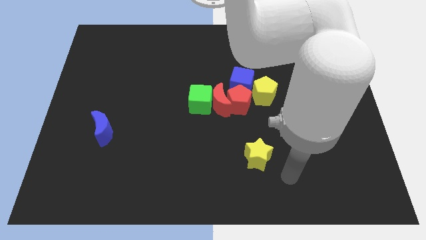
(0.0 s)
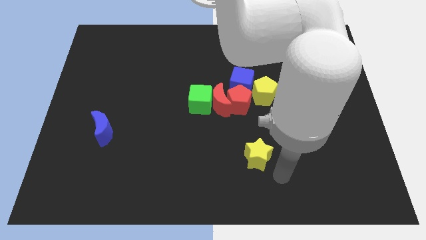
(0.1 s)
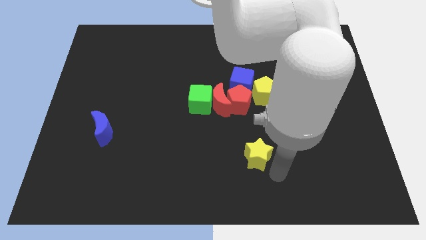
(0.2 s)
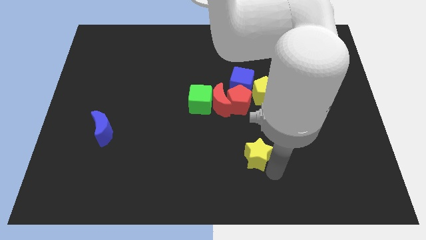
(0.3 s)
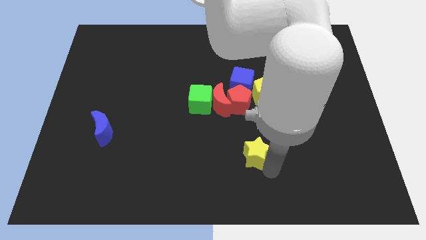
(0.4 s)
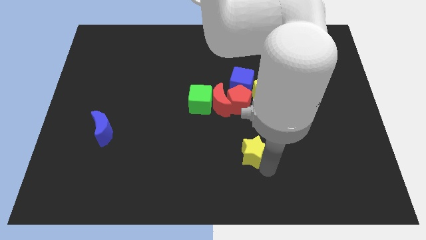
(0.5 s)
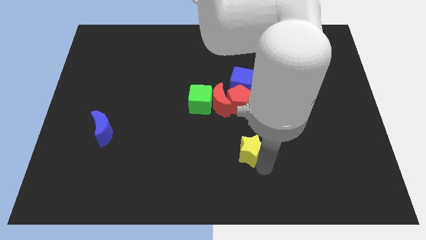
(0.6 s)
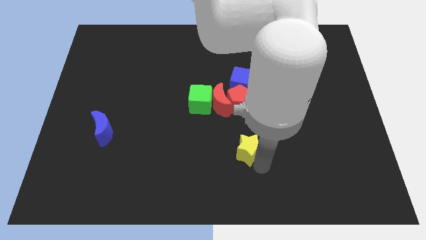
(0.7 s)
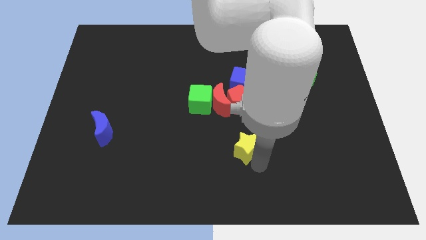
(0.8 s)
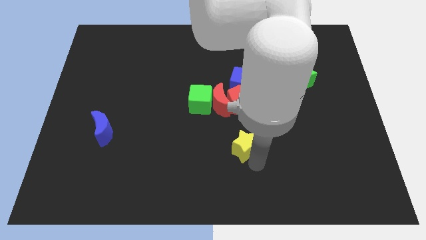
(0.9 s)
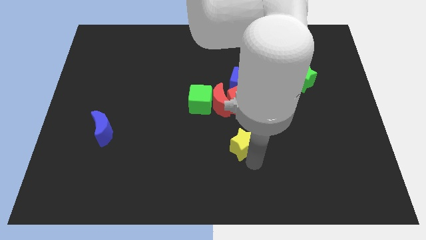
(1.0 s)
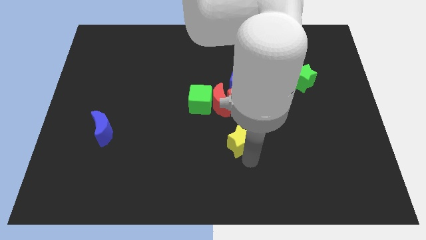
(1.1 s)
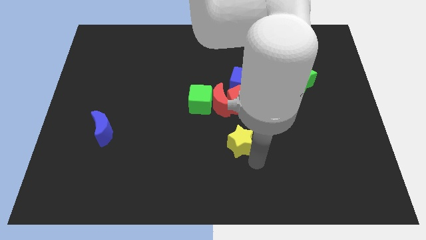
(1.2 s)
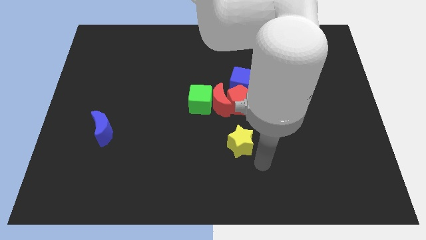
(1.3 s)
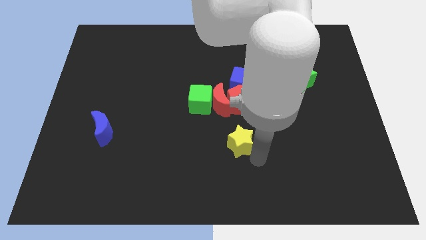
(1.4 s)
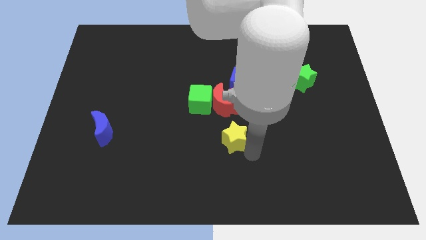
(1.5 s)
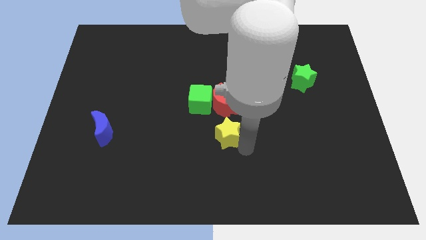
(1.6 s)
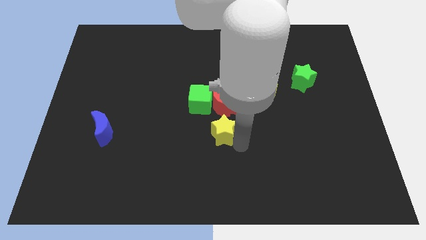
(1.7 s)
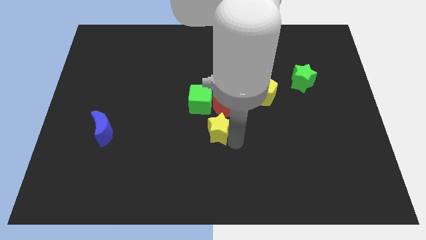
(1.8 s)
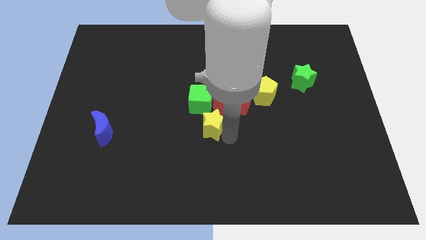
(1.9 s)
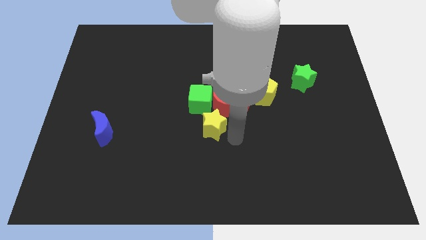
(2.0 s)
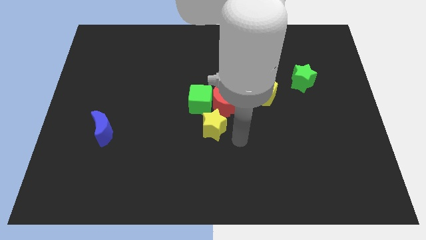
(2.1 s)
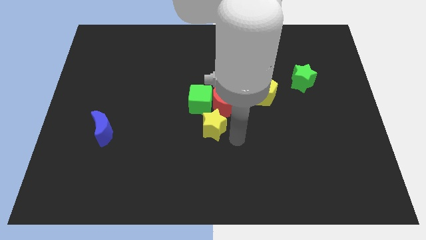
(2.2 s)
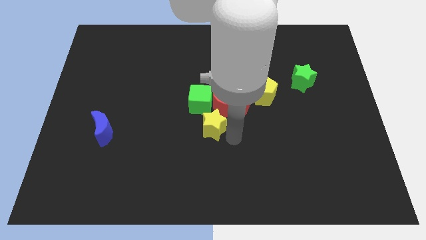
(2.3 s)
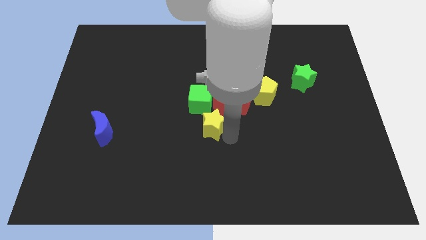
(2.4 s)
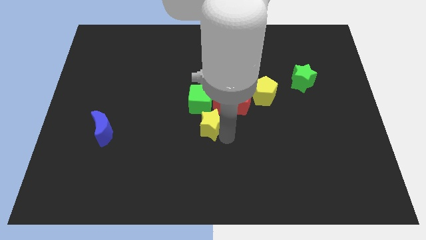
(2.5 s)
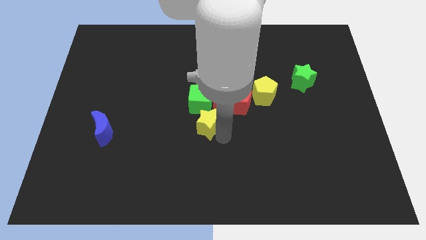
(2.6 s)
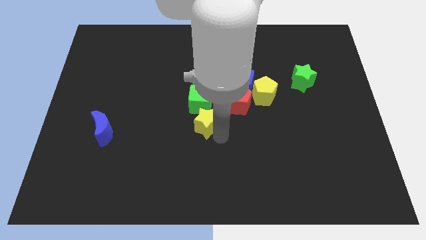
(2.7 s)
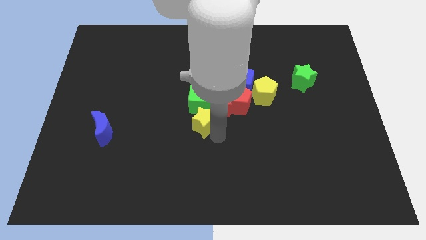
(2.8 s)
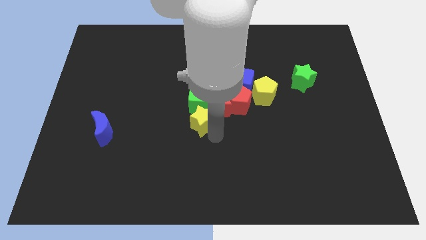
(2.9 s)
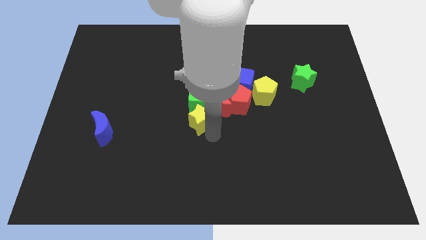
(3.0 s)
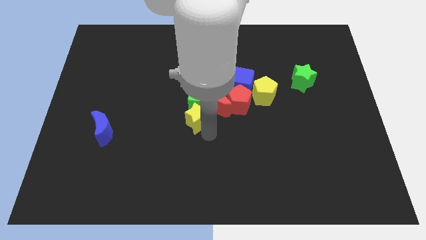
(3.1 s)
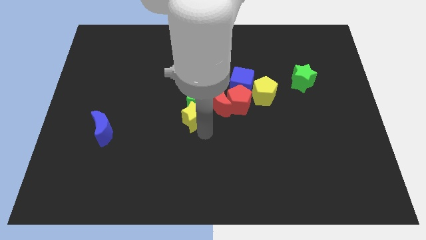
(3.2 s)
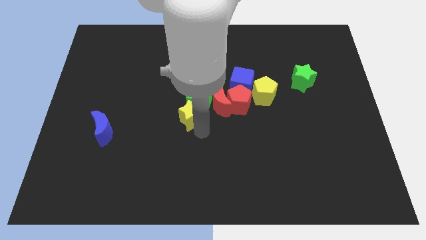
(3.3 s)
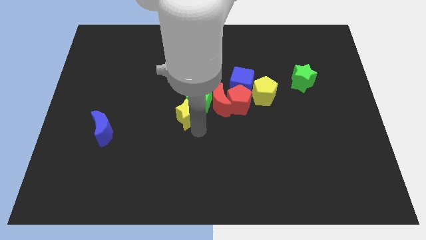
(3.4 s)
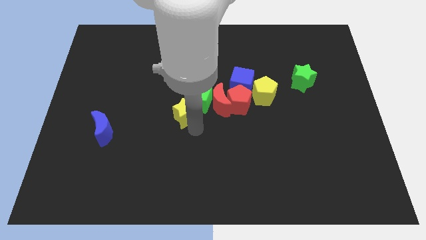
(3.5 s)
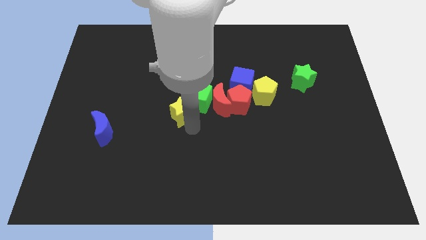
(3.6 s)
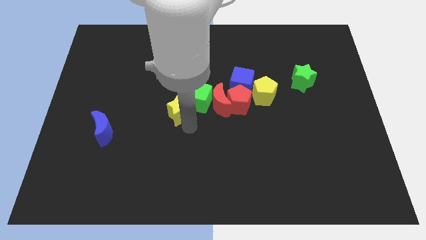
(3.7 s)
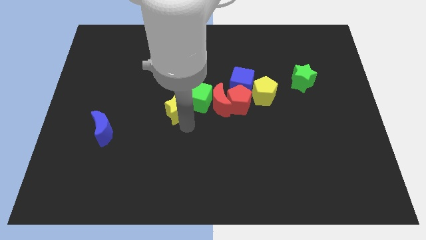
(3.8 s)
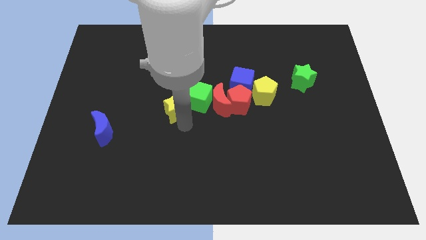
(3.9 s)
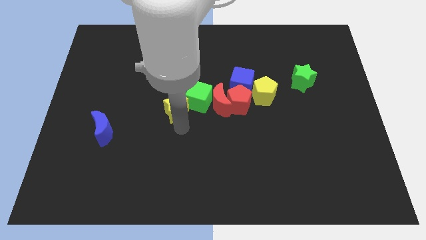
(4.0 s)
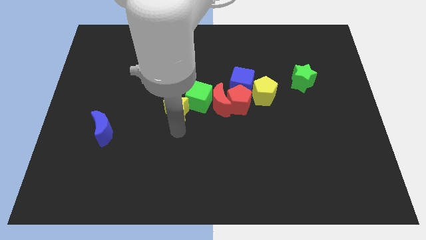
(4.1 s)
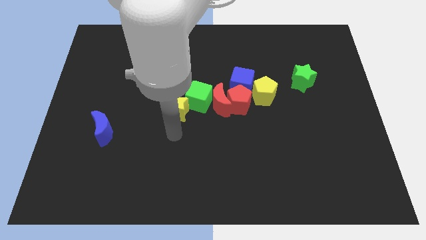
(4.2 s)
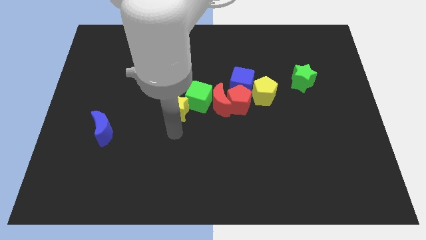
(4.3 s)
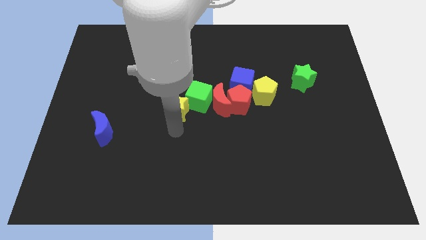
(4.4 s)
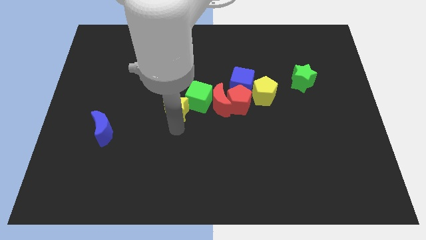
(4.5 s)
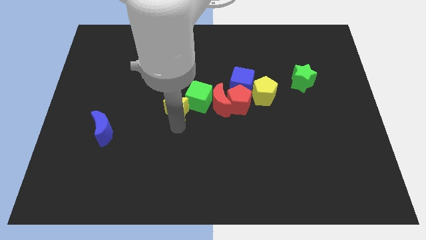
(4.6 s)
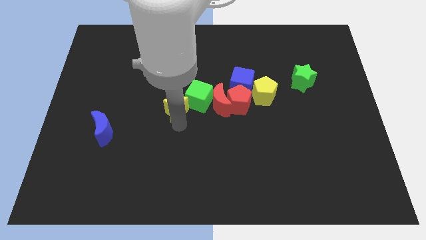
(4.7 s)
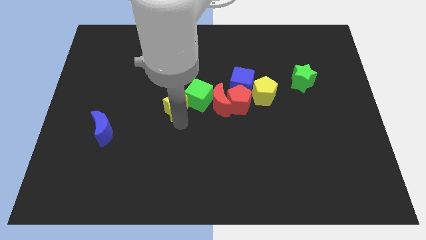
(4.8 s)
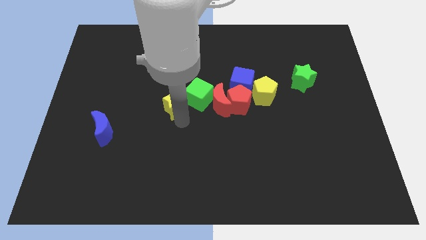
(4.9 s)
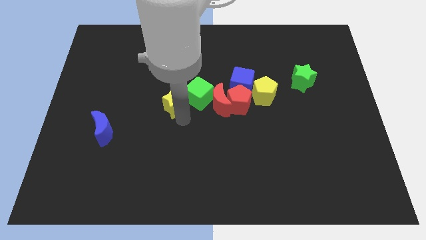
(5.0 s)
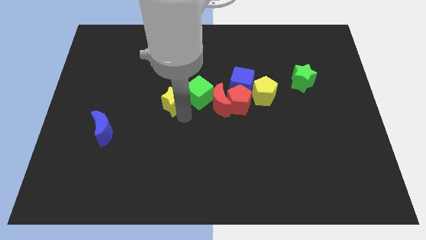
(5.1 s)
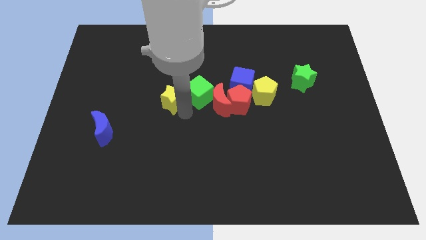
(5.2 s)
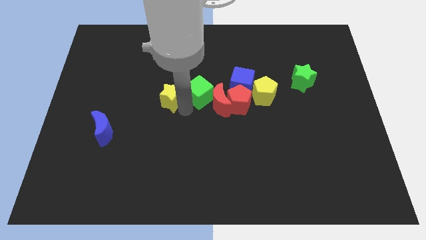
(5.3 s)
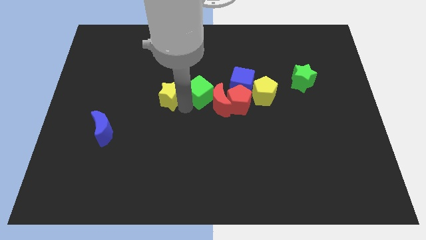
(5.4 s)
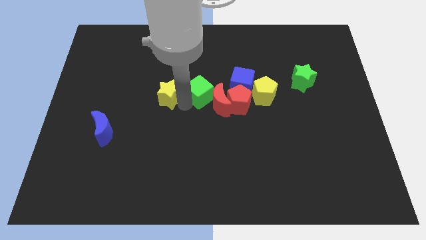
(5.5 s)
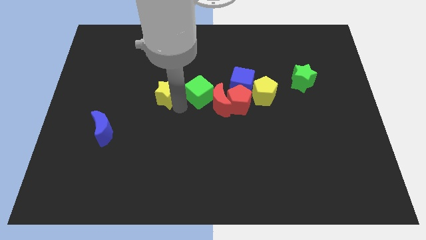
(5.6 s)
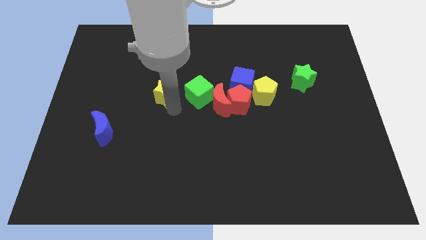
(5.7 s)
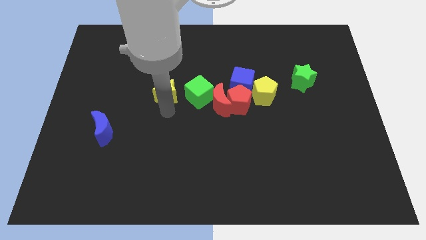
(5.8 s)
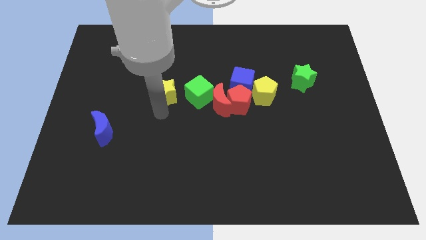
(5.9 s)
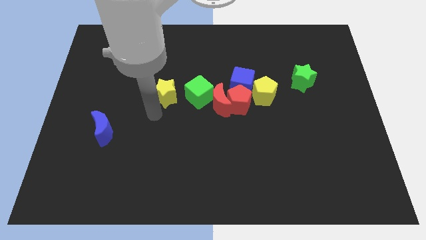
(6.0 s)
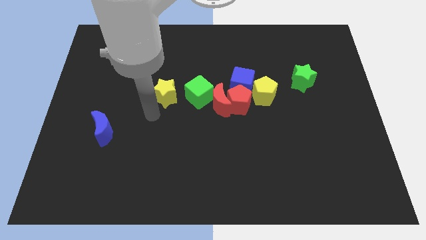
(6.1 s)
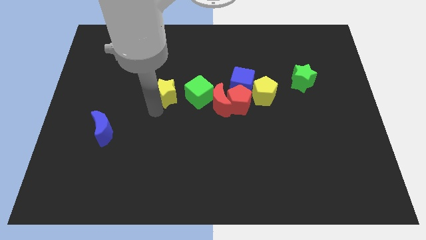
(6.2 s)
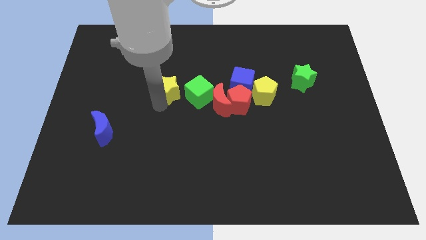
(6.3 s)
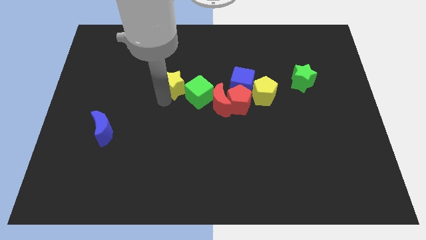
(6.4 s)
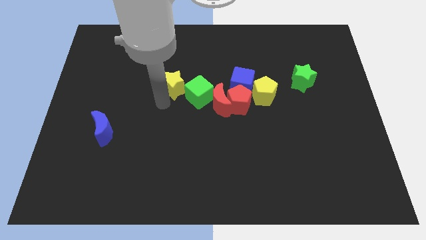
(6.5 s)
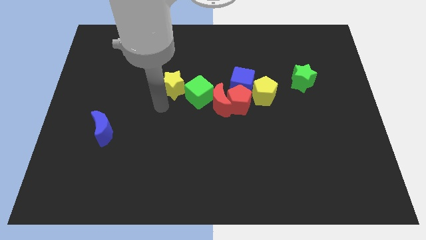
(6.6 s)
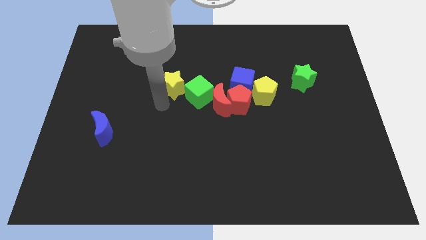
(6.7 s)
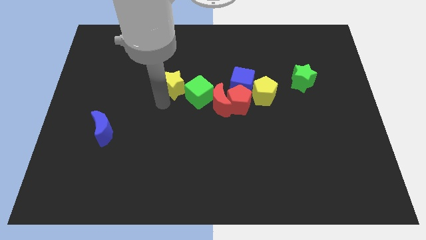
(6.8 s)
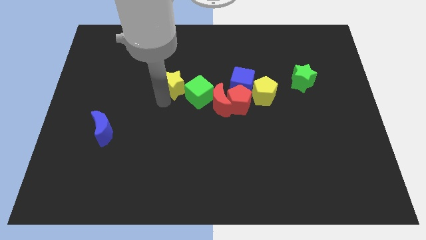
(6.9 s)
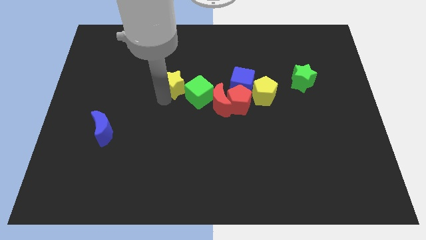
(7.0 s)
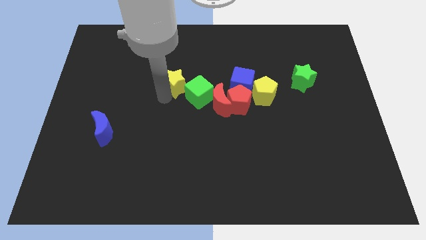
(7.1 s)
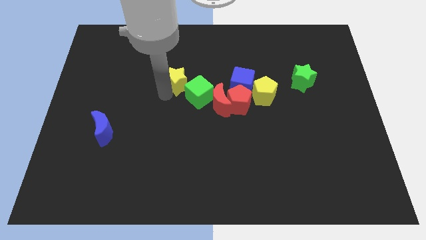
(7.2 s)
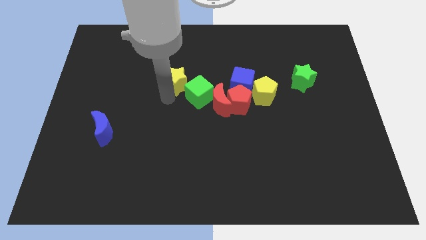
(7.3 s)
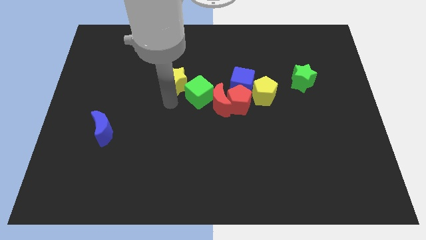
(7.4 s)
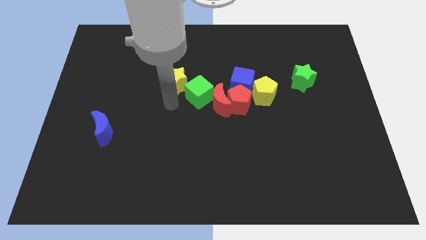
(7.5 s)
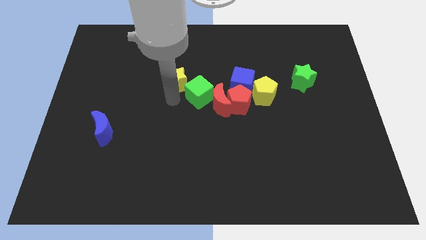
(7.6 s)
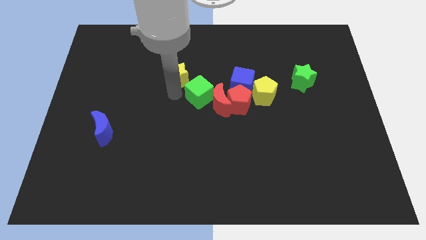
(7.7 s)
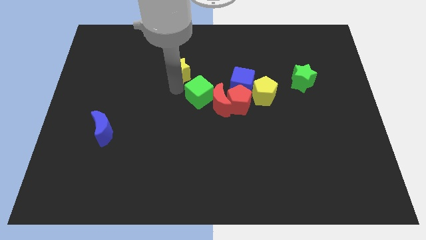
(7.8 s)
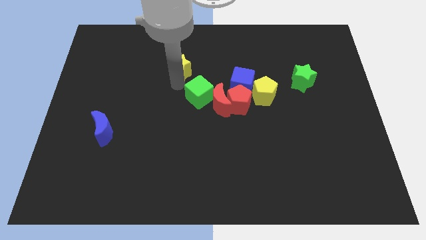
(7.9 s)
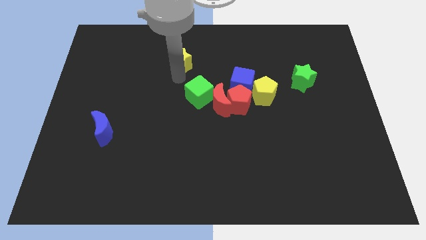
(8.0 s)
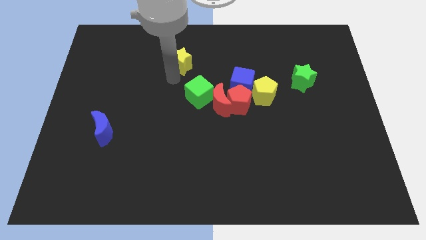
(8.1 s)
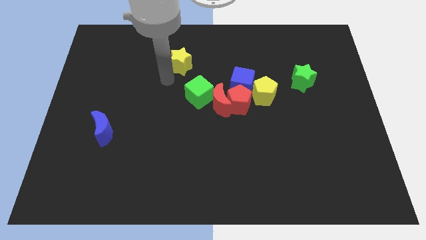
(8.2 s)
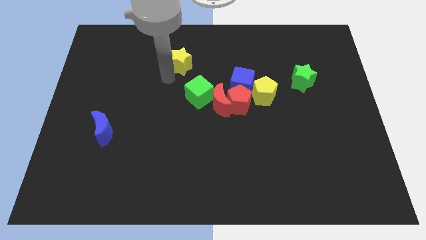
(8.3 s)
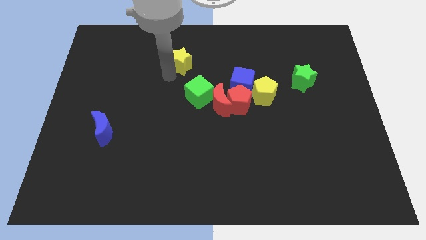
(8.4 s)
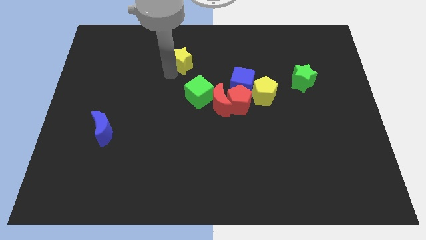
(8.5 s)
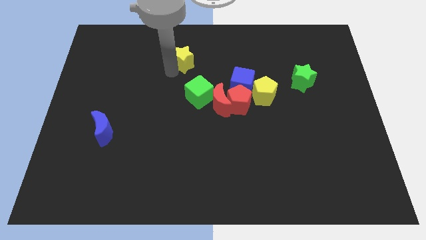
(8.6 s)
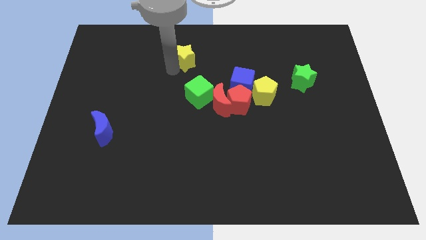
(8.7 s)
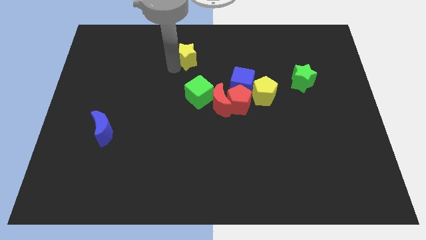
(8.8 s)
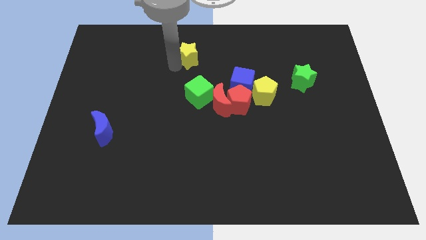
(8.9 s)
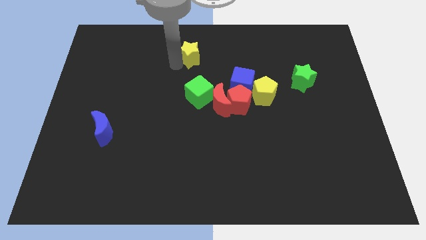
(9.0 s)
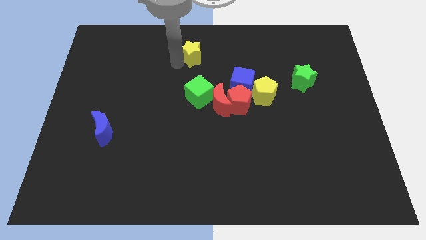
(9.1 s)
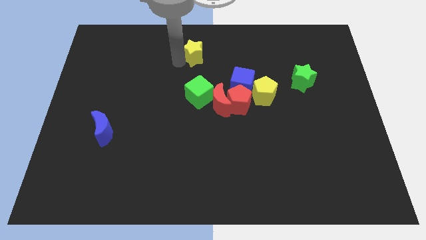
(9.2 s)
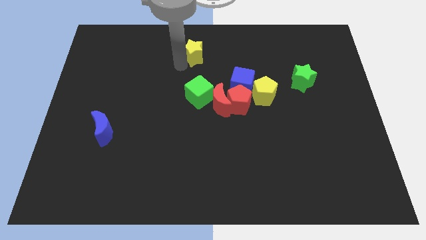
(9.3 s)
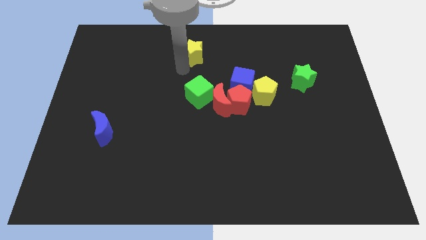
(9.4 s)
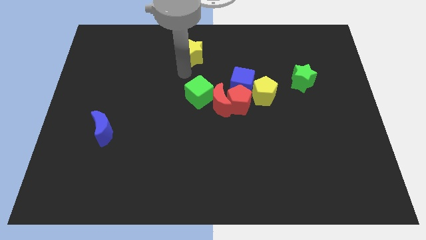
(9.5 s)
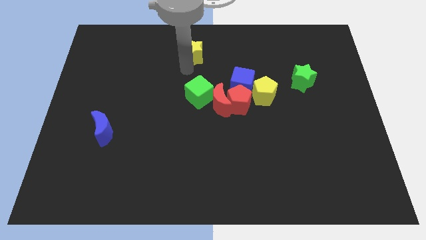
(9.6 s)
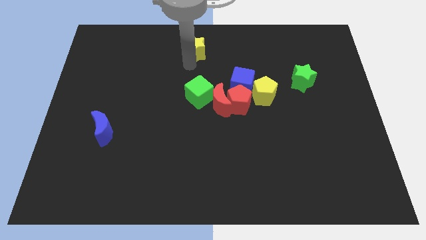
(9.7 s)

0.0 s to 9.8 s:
move the yellow star to the top
